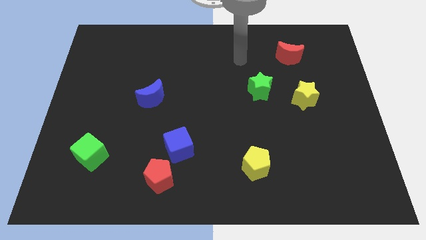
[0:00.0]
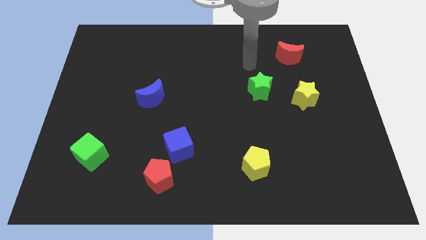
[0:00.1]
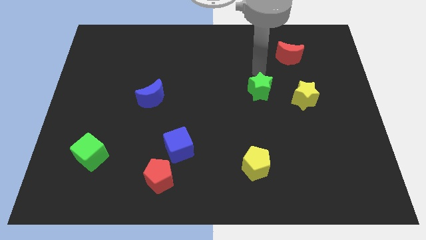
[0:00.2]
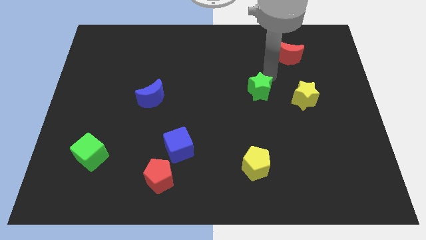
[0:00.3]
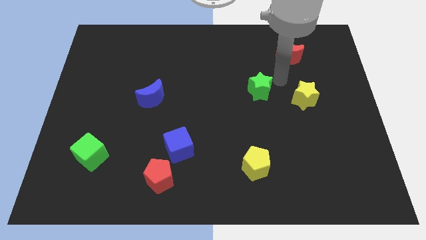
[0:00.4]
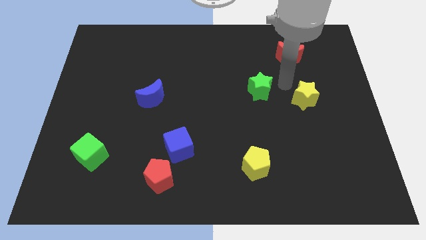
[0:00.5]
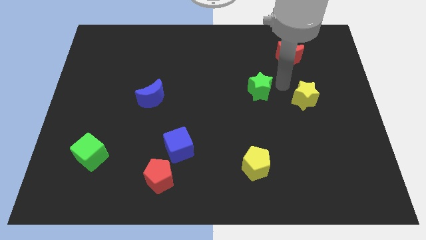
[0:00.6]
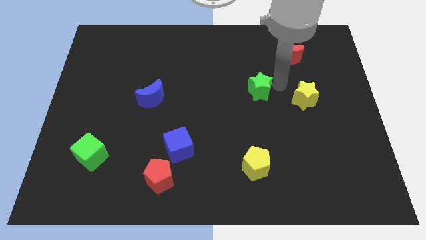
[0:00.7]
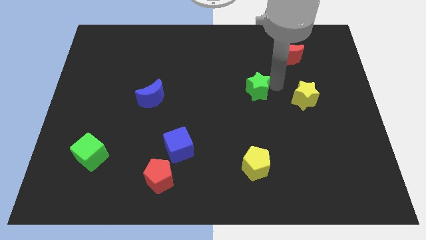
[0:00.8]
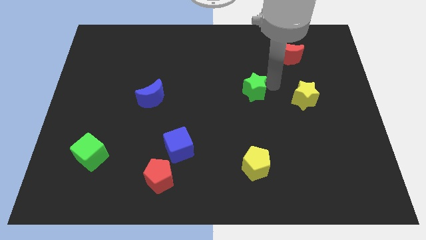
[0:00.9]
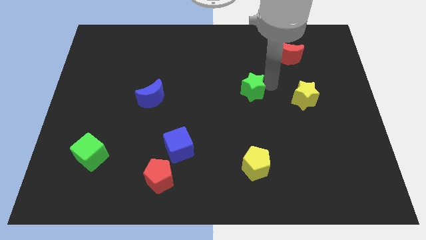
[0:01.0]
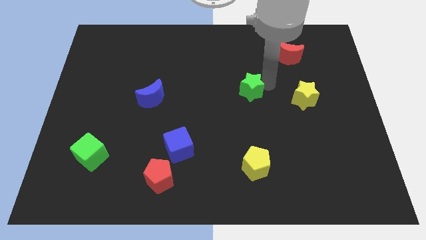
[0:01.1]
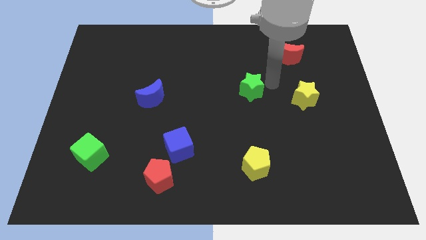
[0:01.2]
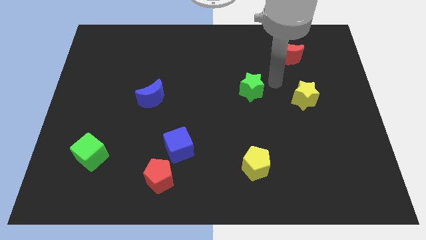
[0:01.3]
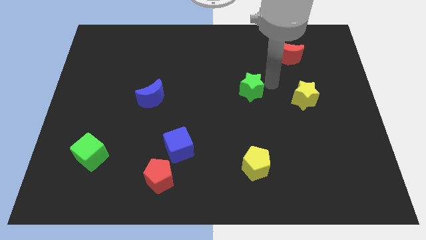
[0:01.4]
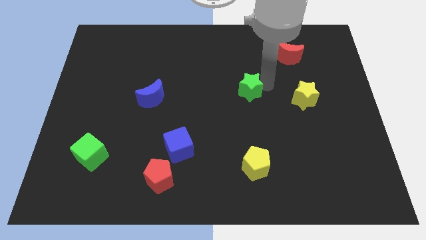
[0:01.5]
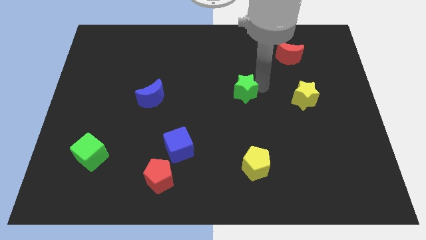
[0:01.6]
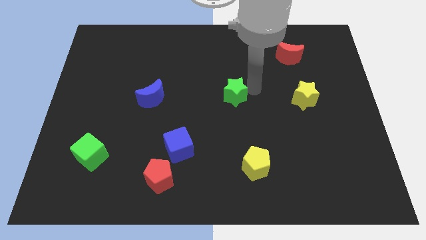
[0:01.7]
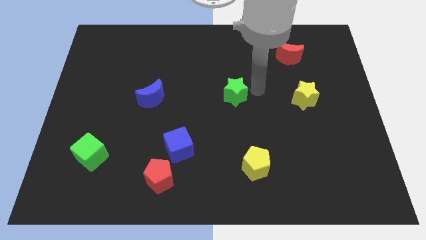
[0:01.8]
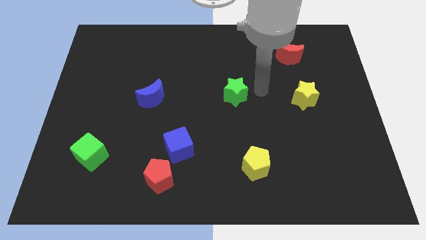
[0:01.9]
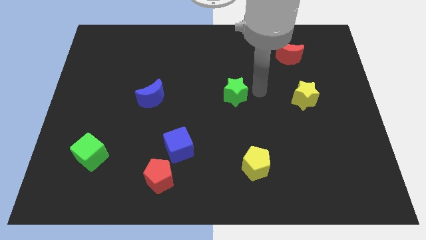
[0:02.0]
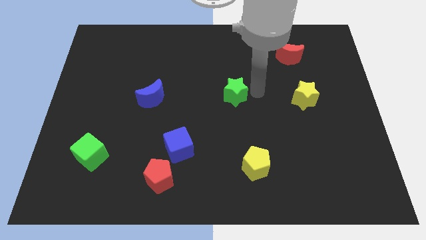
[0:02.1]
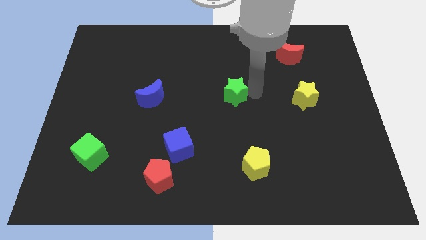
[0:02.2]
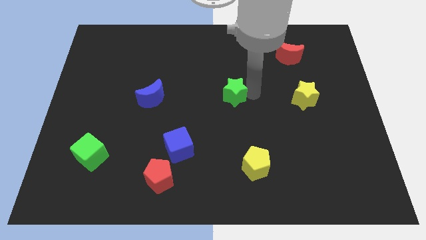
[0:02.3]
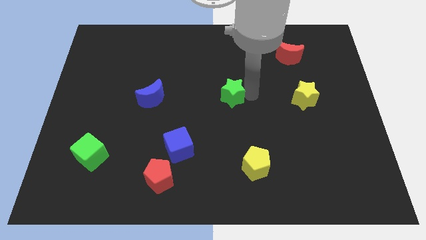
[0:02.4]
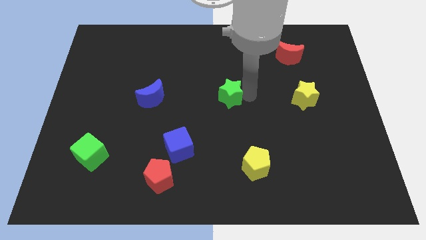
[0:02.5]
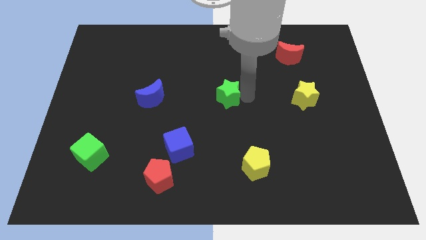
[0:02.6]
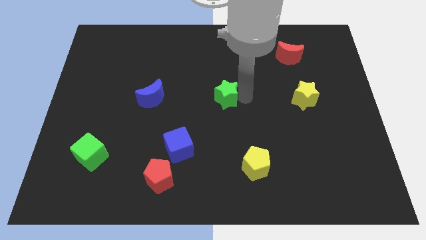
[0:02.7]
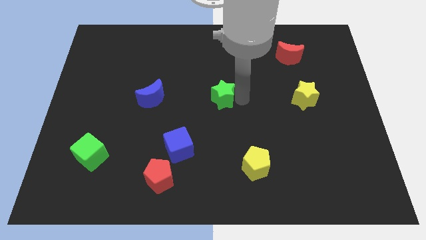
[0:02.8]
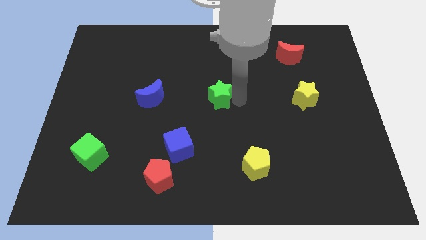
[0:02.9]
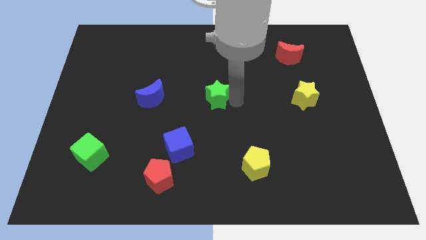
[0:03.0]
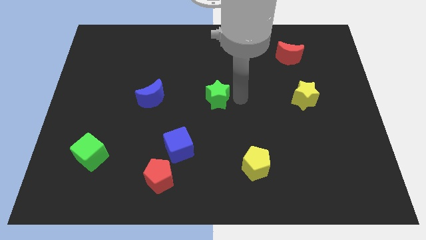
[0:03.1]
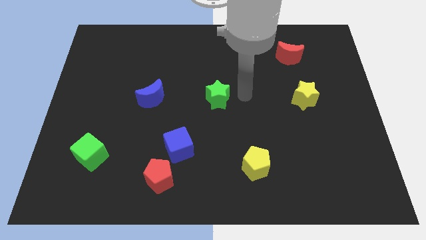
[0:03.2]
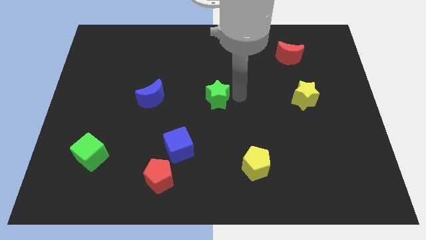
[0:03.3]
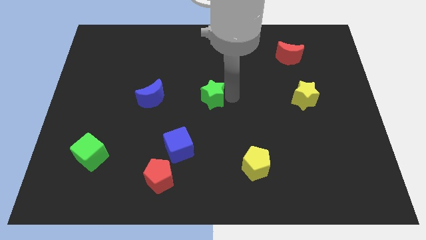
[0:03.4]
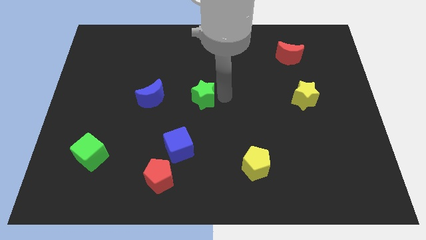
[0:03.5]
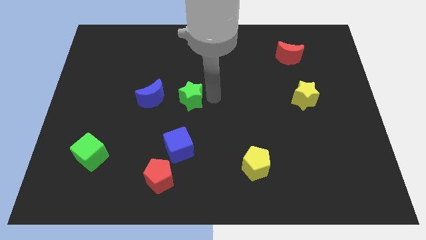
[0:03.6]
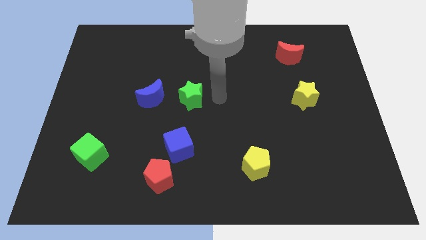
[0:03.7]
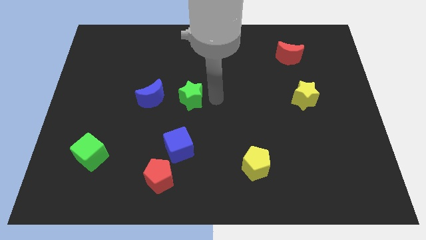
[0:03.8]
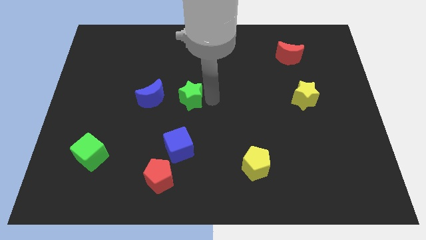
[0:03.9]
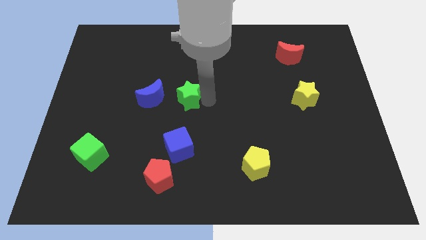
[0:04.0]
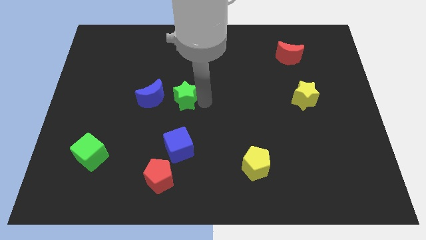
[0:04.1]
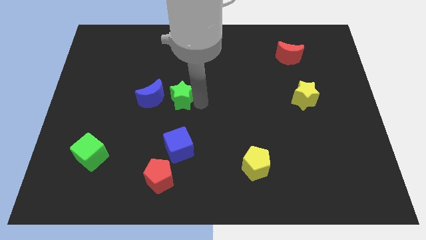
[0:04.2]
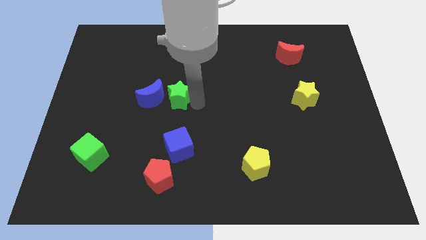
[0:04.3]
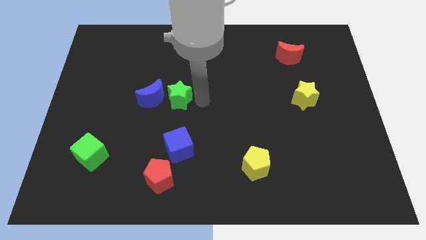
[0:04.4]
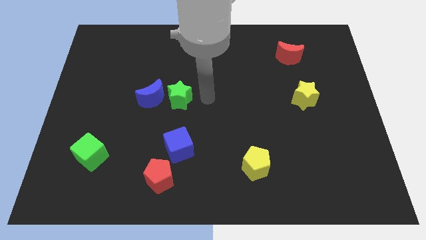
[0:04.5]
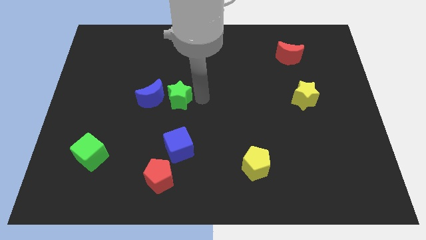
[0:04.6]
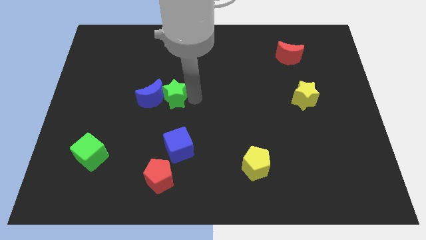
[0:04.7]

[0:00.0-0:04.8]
move the green star towards the blue moon

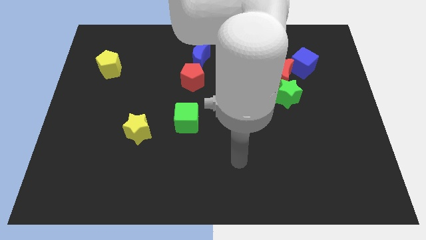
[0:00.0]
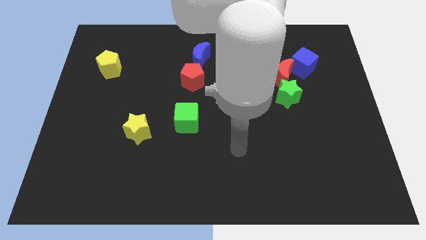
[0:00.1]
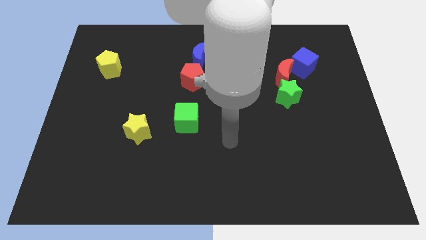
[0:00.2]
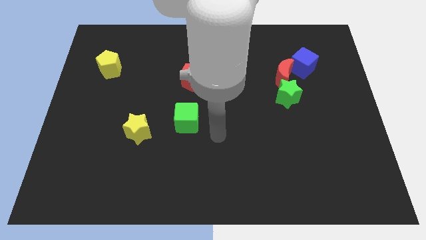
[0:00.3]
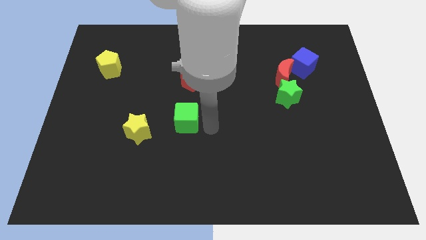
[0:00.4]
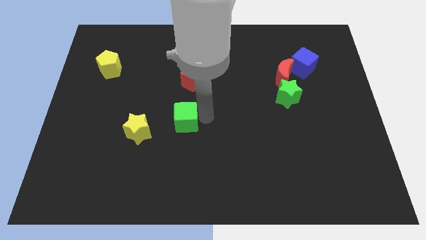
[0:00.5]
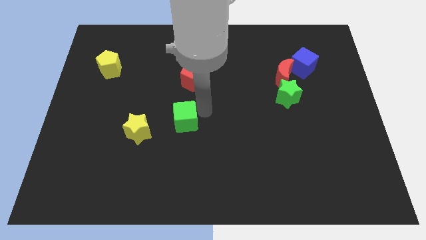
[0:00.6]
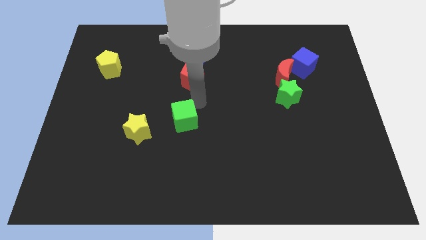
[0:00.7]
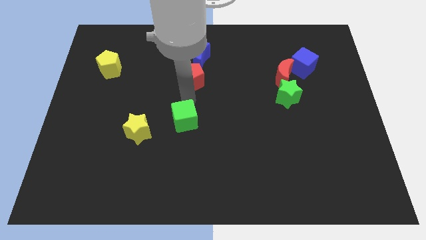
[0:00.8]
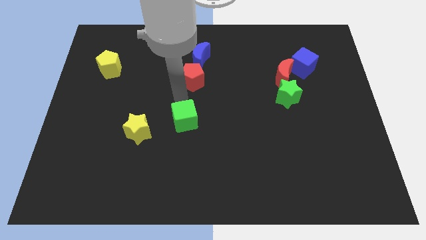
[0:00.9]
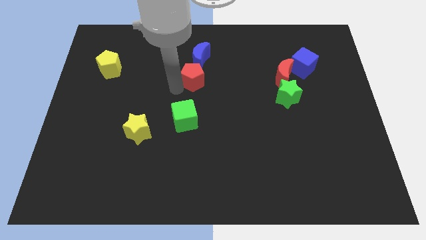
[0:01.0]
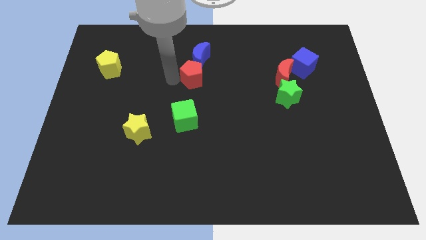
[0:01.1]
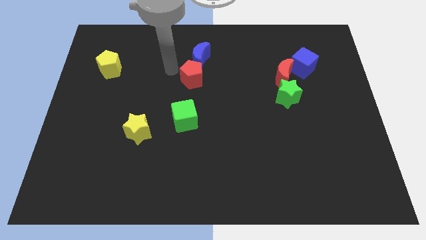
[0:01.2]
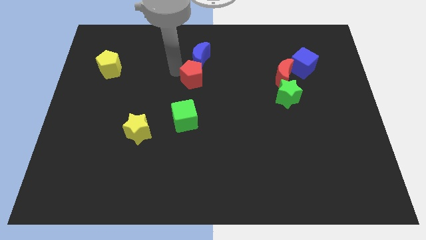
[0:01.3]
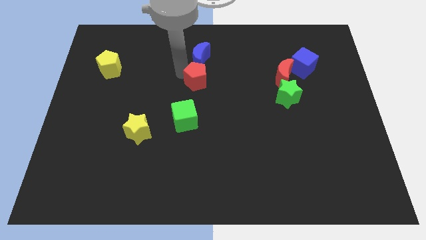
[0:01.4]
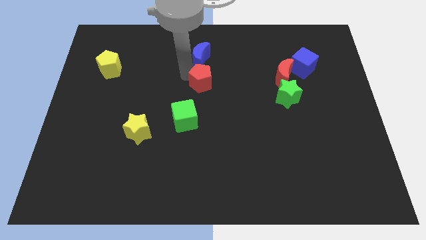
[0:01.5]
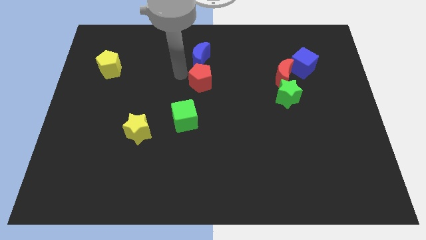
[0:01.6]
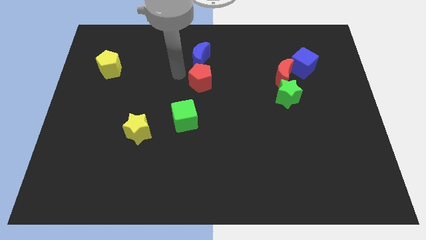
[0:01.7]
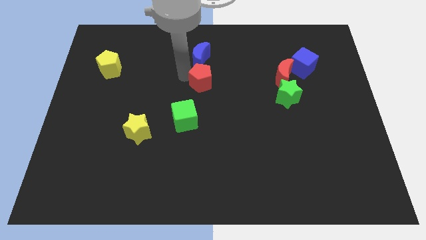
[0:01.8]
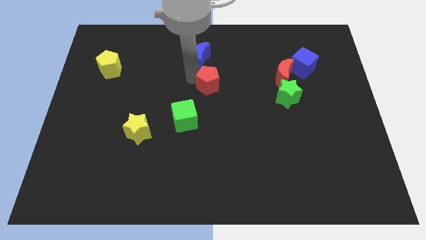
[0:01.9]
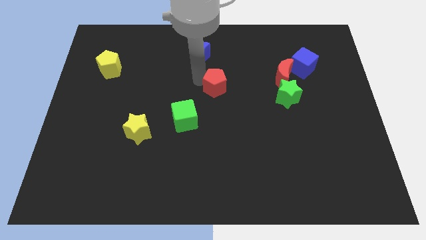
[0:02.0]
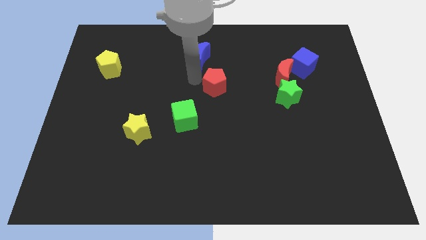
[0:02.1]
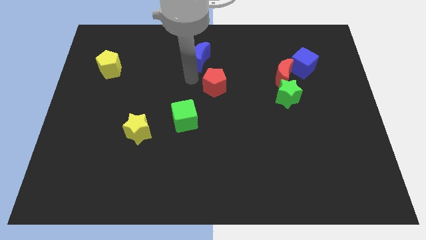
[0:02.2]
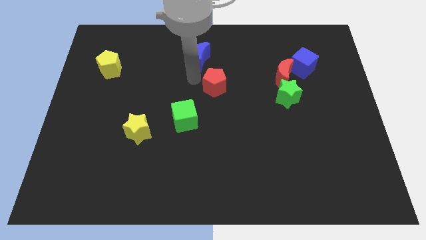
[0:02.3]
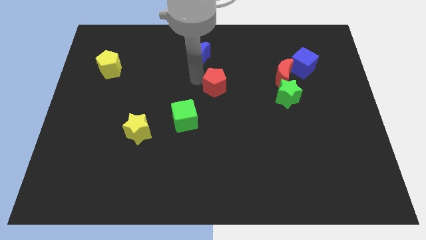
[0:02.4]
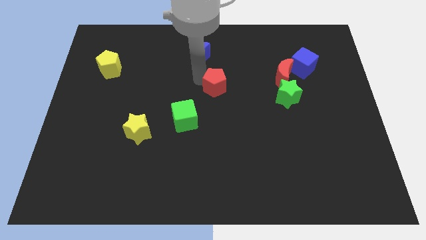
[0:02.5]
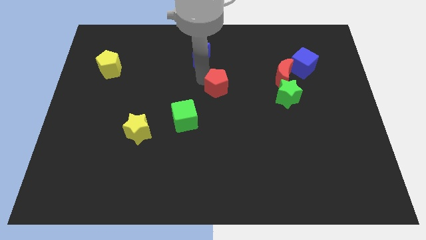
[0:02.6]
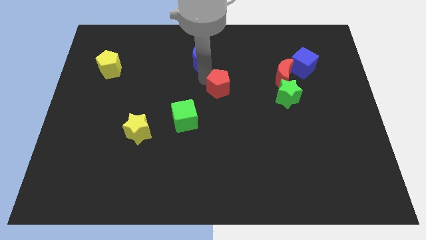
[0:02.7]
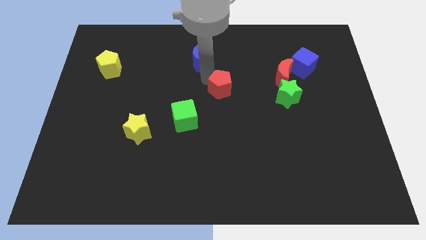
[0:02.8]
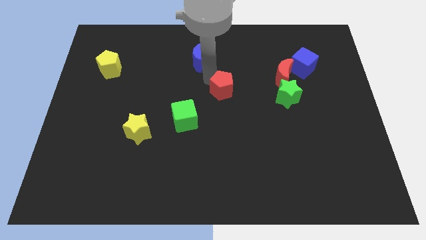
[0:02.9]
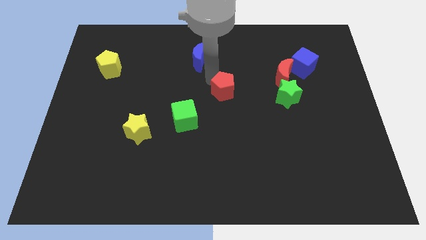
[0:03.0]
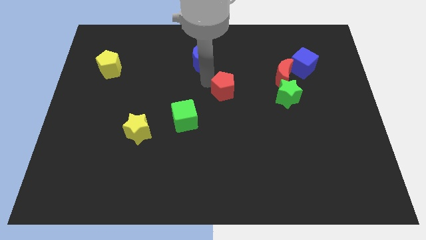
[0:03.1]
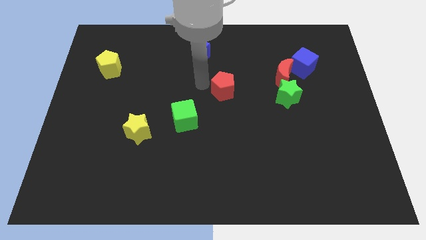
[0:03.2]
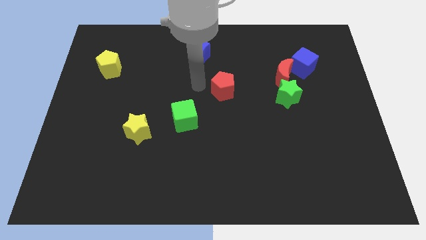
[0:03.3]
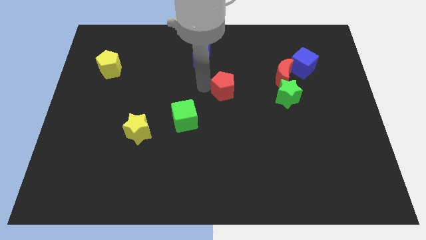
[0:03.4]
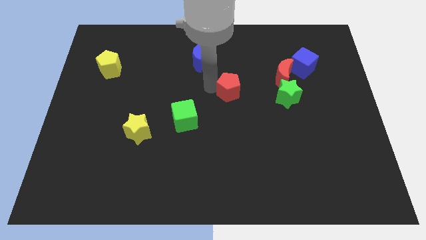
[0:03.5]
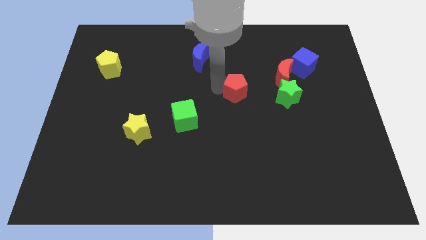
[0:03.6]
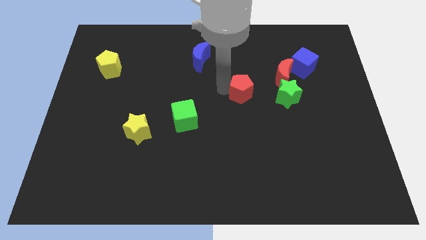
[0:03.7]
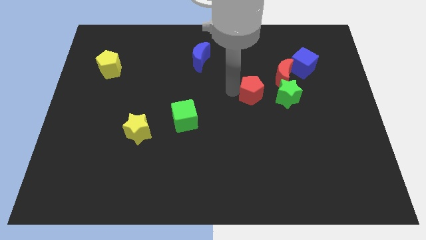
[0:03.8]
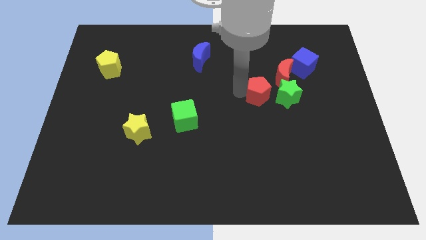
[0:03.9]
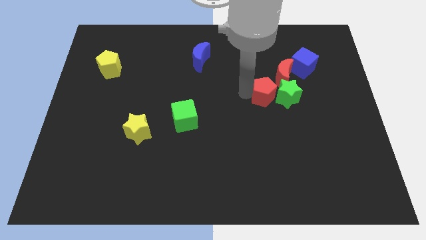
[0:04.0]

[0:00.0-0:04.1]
push the red pentagon to the green star
